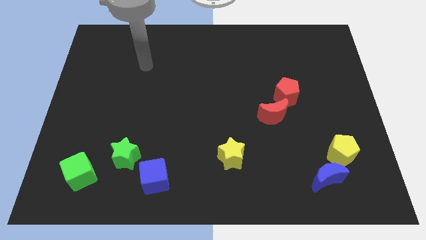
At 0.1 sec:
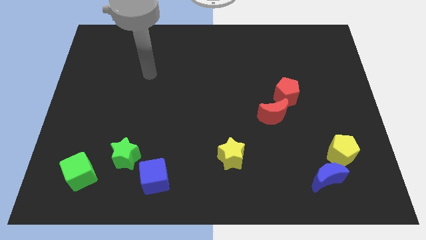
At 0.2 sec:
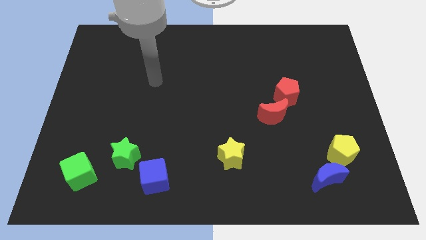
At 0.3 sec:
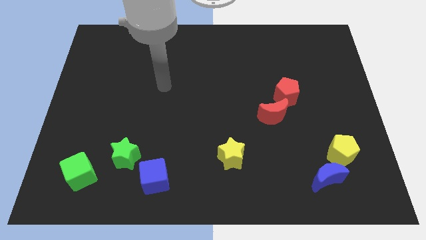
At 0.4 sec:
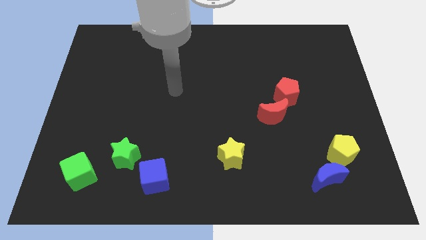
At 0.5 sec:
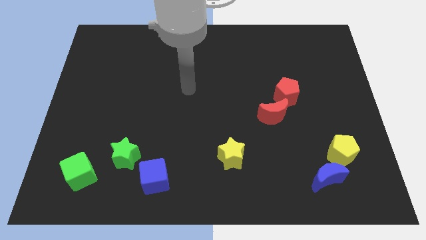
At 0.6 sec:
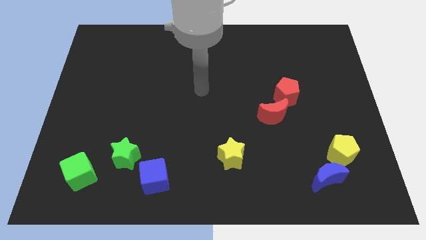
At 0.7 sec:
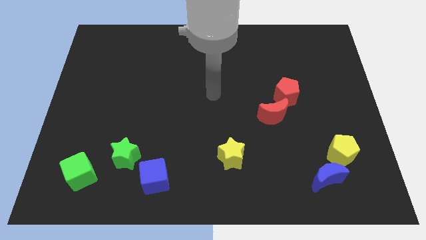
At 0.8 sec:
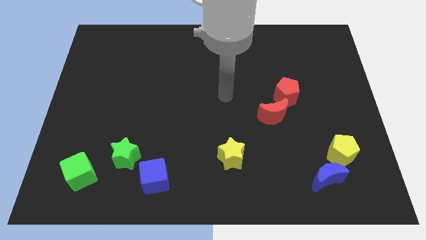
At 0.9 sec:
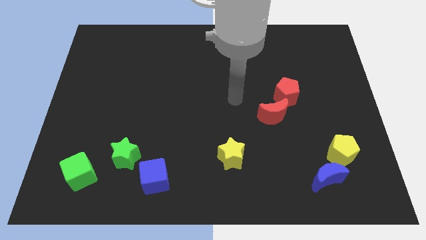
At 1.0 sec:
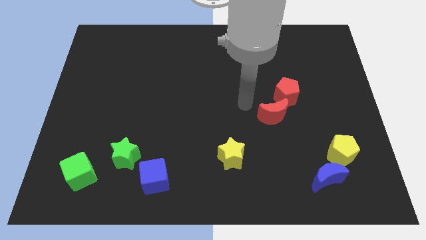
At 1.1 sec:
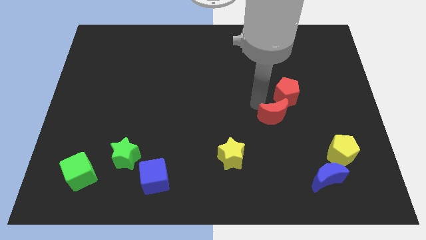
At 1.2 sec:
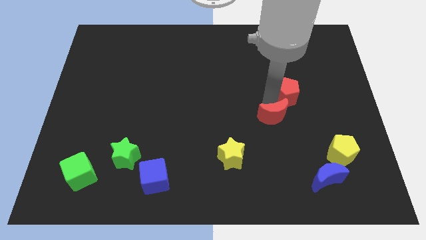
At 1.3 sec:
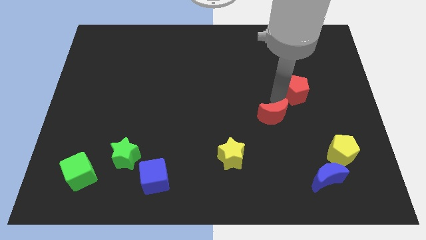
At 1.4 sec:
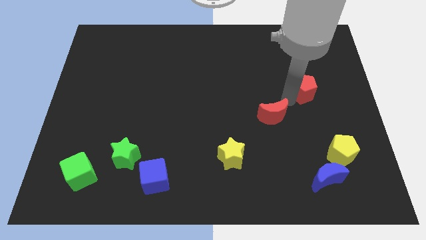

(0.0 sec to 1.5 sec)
pull the red moon apart from the red pentagon

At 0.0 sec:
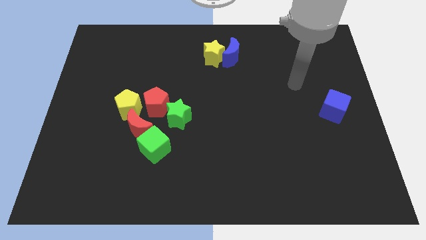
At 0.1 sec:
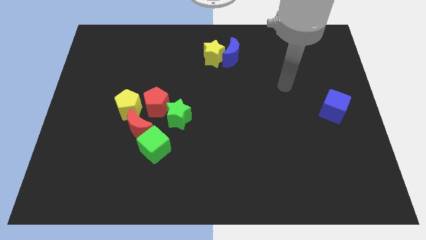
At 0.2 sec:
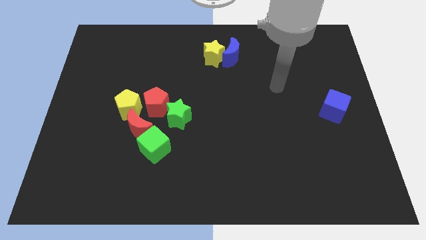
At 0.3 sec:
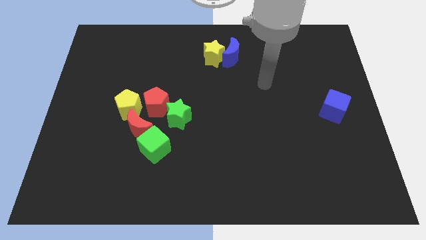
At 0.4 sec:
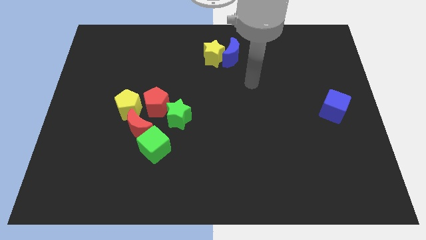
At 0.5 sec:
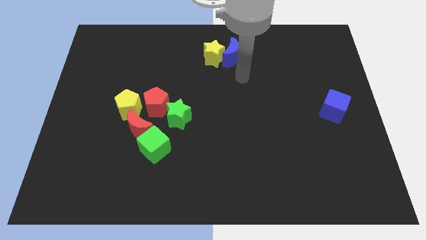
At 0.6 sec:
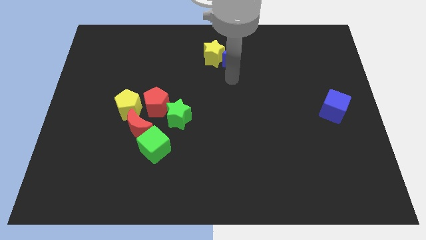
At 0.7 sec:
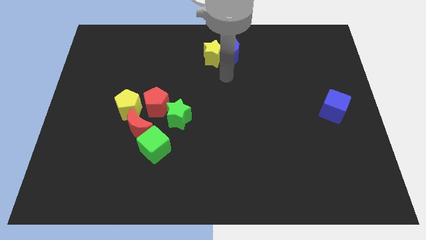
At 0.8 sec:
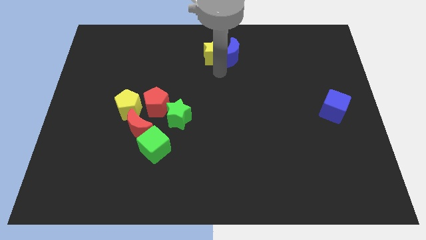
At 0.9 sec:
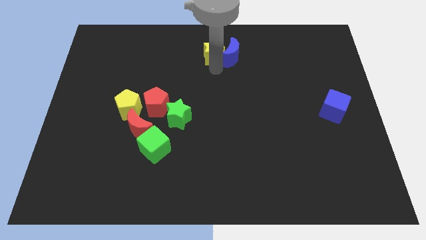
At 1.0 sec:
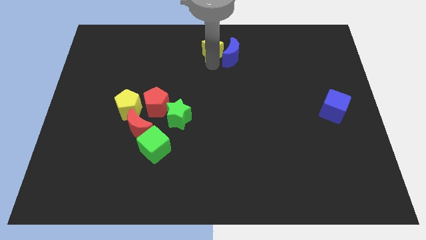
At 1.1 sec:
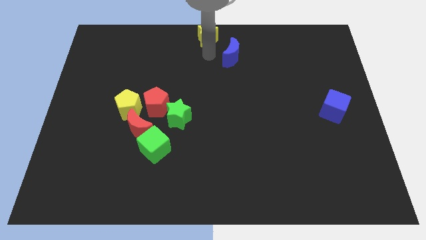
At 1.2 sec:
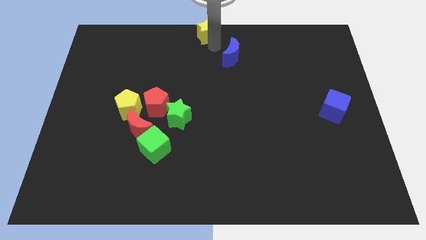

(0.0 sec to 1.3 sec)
move the blue moon away from the yellow star

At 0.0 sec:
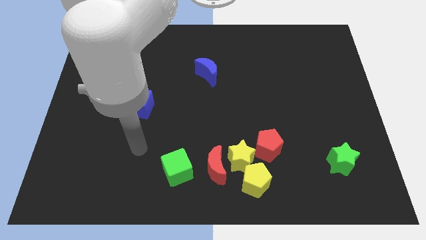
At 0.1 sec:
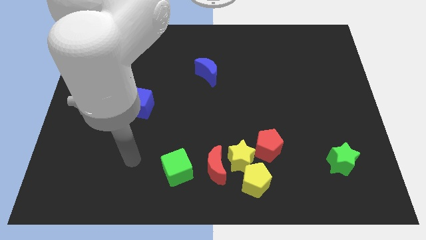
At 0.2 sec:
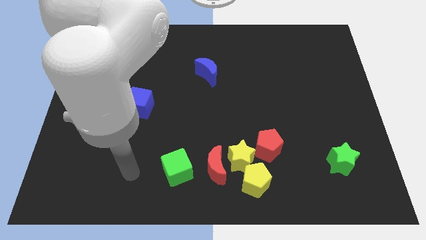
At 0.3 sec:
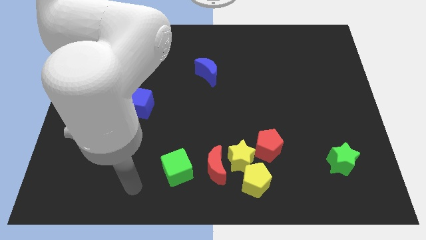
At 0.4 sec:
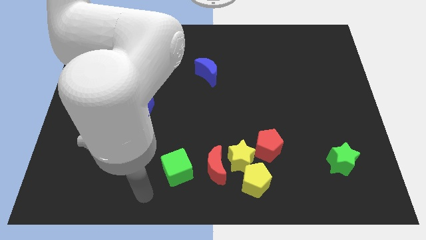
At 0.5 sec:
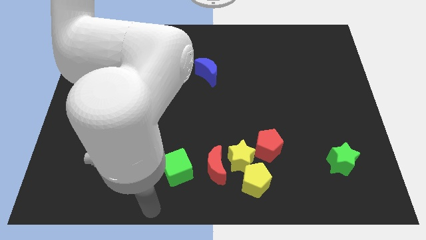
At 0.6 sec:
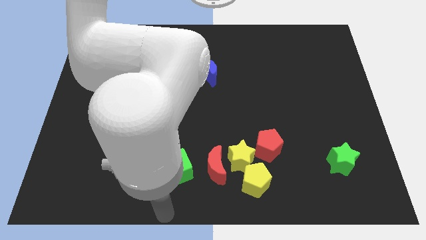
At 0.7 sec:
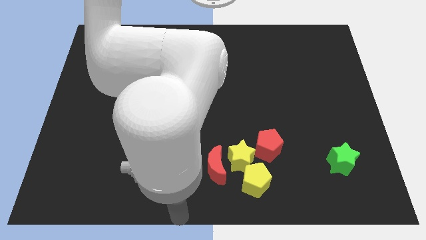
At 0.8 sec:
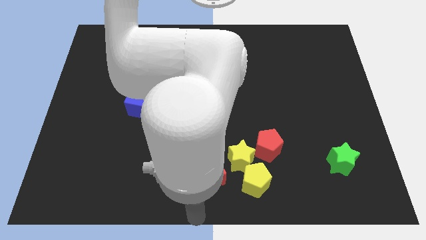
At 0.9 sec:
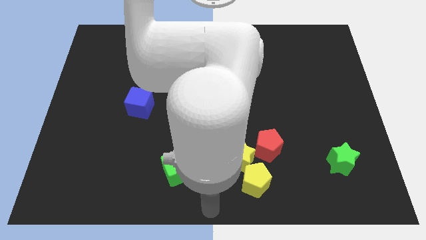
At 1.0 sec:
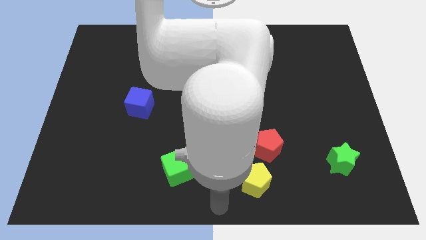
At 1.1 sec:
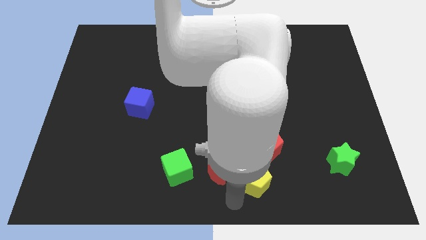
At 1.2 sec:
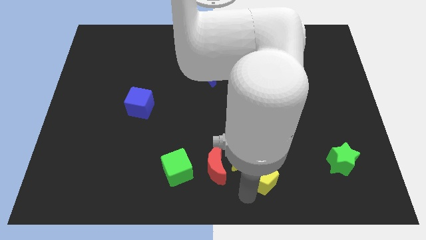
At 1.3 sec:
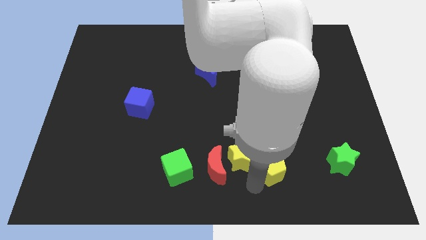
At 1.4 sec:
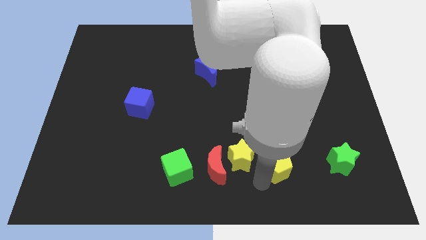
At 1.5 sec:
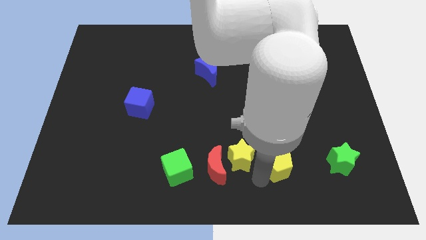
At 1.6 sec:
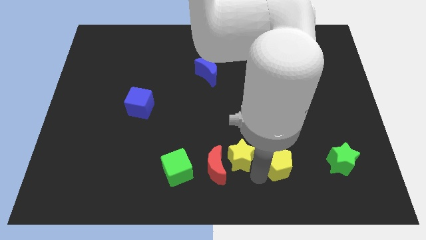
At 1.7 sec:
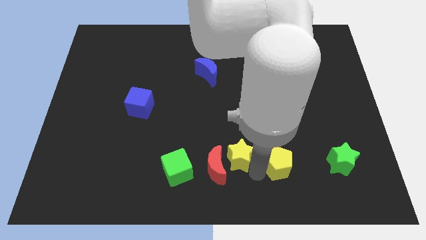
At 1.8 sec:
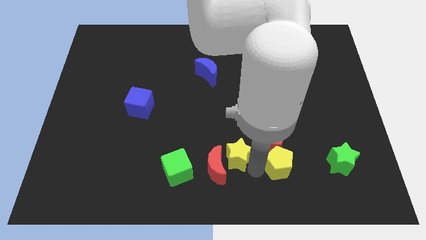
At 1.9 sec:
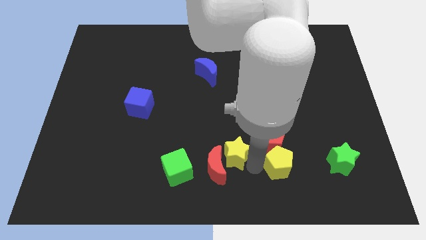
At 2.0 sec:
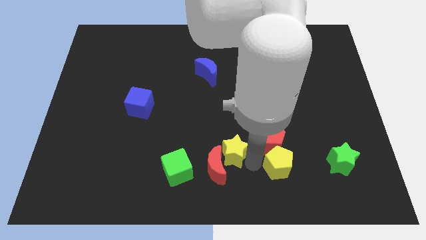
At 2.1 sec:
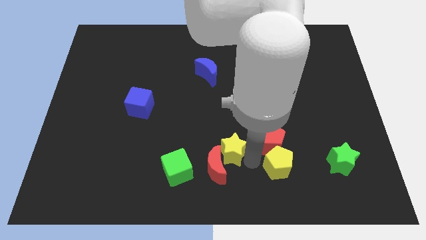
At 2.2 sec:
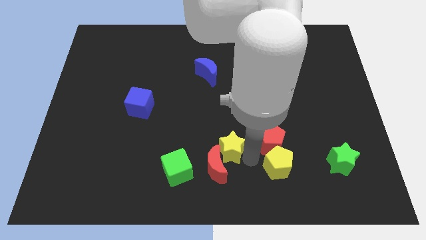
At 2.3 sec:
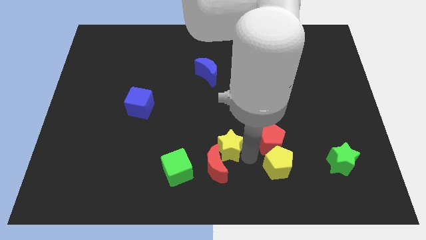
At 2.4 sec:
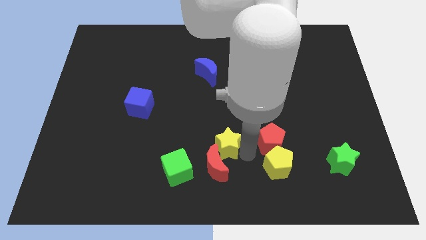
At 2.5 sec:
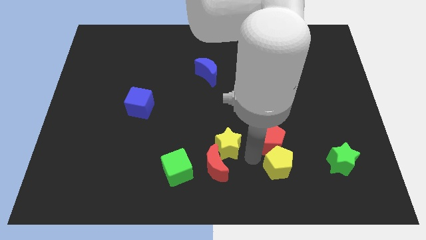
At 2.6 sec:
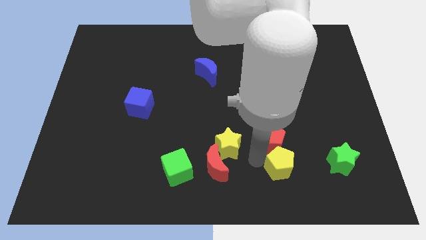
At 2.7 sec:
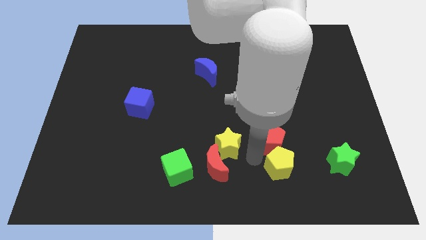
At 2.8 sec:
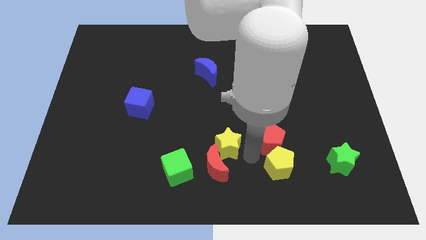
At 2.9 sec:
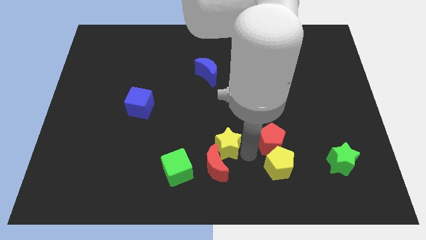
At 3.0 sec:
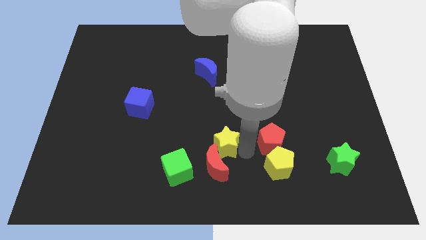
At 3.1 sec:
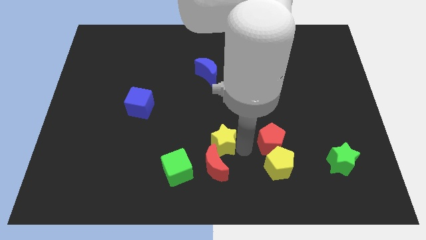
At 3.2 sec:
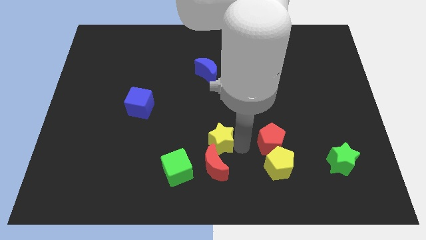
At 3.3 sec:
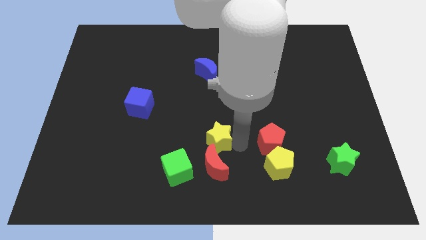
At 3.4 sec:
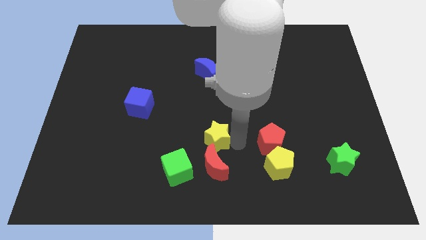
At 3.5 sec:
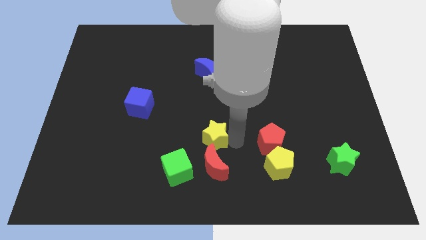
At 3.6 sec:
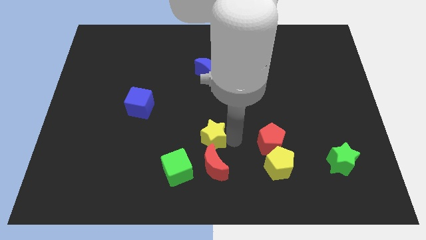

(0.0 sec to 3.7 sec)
pull the yellow star apart from the red moon, yellow pentagon, and red pentagon

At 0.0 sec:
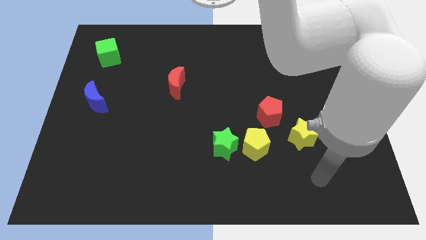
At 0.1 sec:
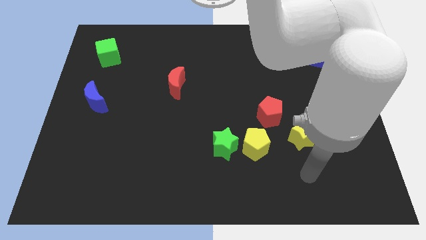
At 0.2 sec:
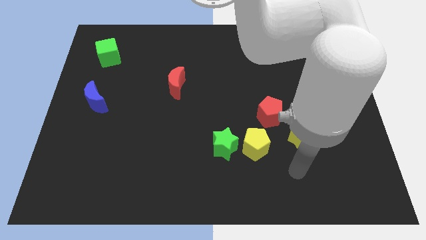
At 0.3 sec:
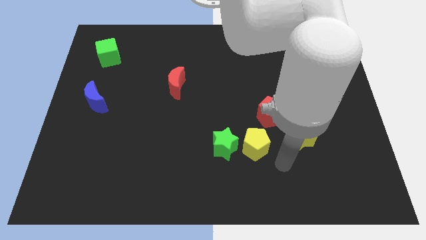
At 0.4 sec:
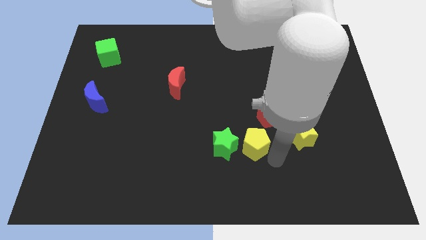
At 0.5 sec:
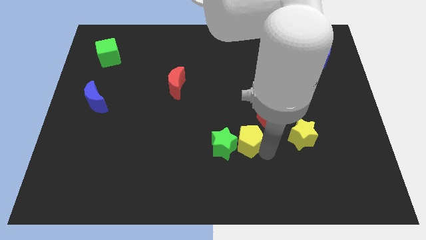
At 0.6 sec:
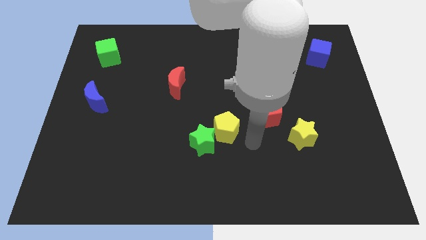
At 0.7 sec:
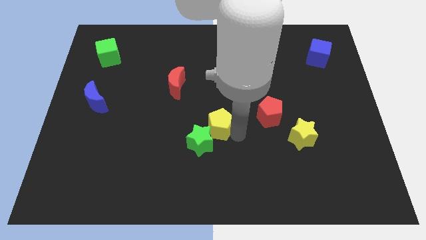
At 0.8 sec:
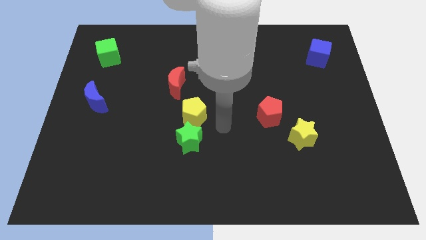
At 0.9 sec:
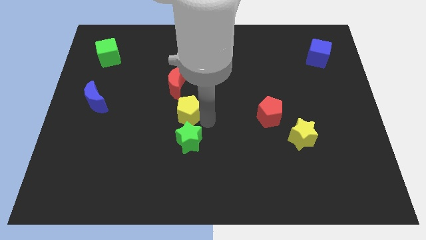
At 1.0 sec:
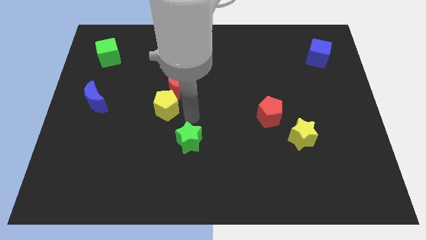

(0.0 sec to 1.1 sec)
separate the green star from the yellow pentagon

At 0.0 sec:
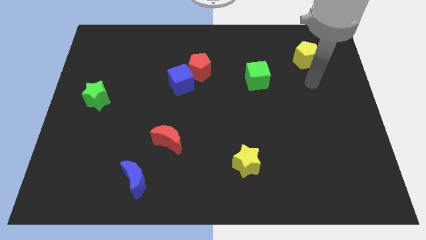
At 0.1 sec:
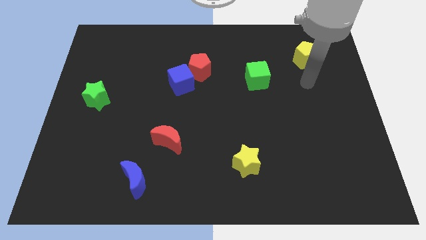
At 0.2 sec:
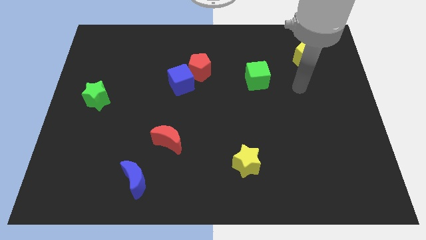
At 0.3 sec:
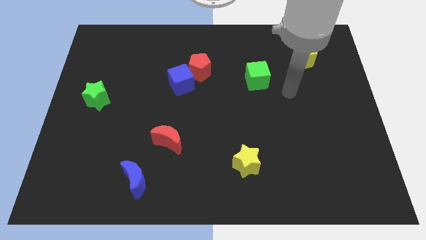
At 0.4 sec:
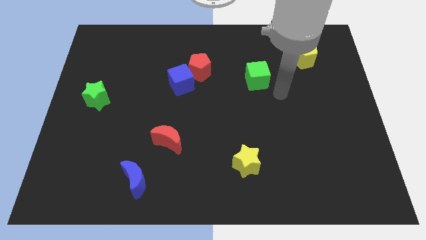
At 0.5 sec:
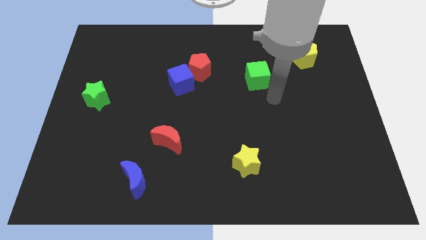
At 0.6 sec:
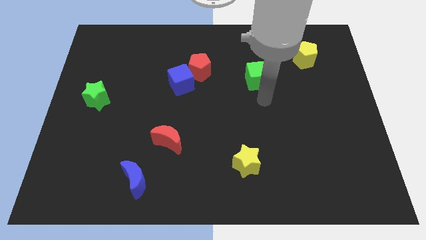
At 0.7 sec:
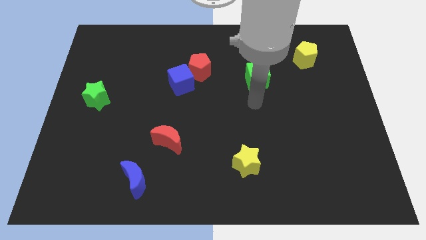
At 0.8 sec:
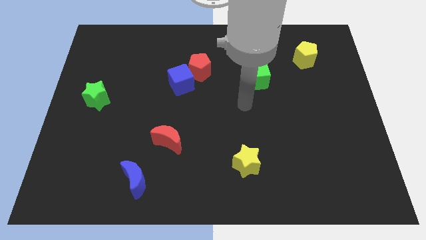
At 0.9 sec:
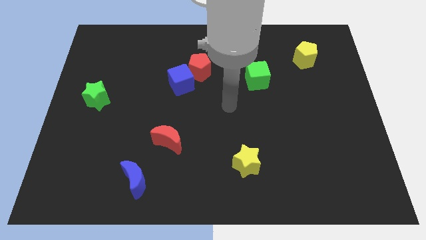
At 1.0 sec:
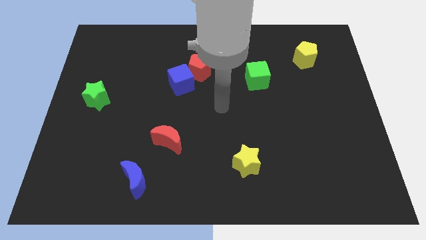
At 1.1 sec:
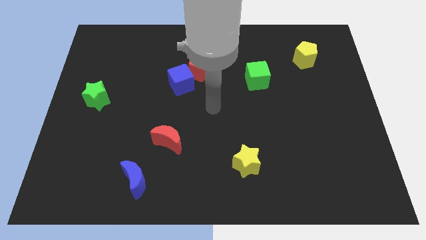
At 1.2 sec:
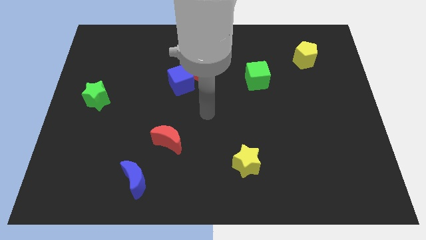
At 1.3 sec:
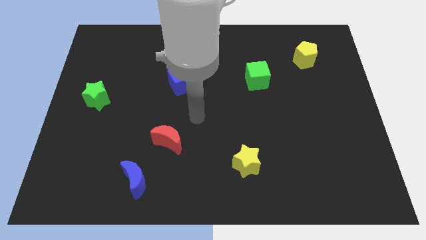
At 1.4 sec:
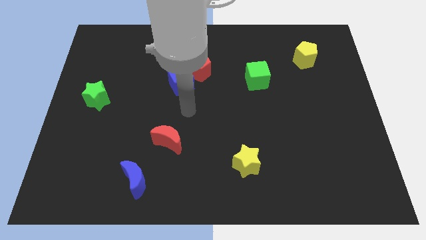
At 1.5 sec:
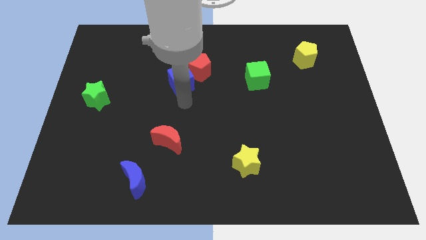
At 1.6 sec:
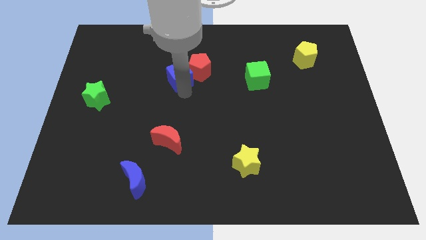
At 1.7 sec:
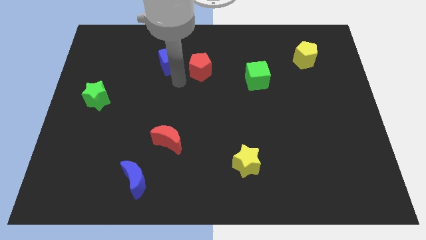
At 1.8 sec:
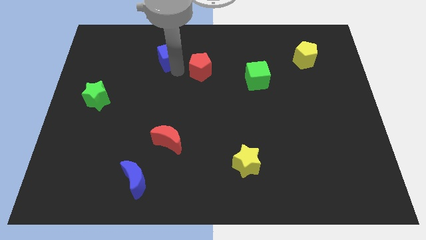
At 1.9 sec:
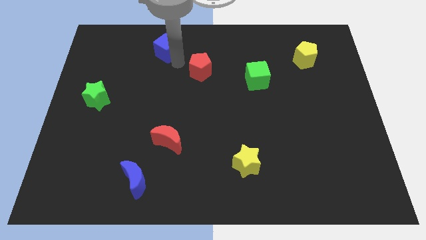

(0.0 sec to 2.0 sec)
separate the red pentagon from the blue cube
